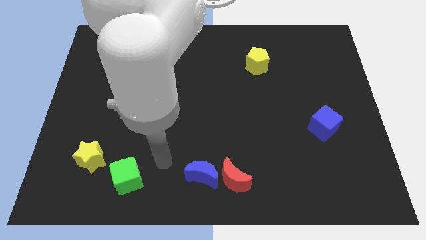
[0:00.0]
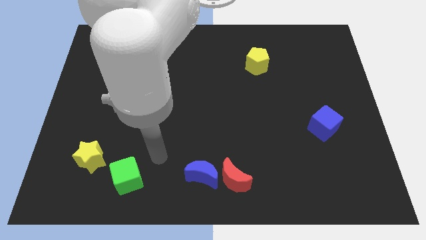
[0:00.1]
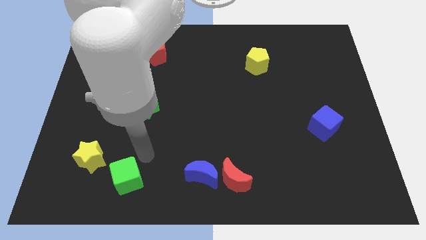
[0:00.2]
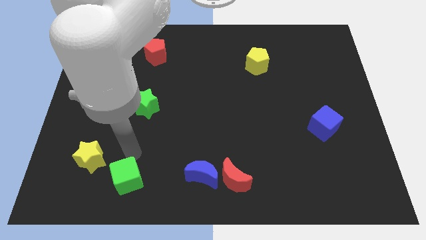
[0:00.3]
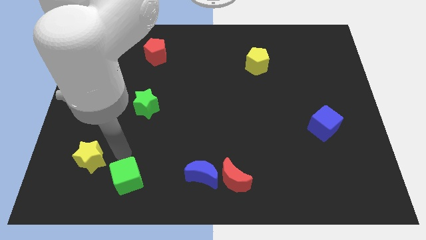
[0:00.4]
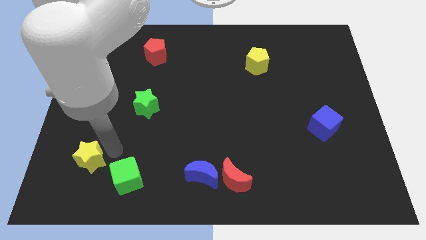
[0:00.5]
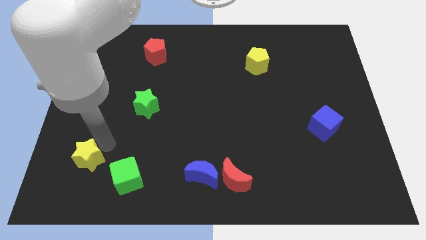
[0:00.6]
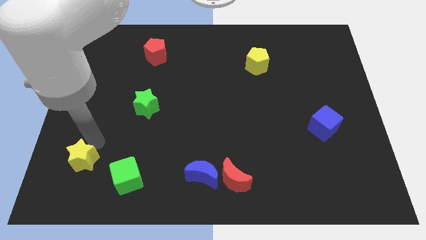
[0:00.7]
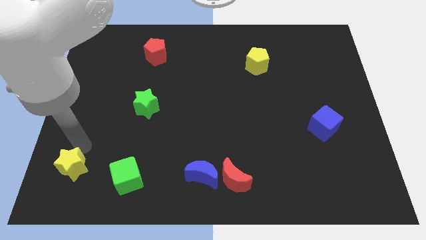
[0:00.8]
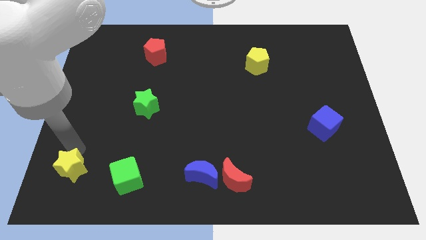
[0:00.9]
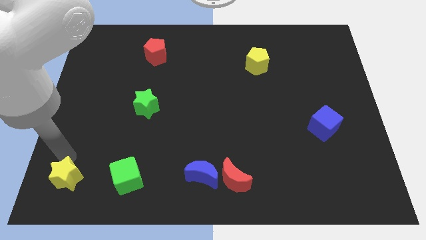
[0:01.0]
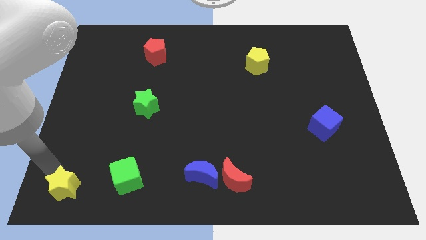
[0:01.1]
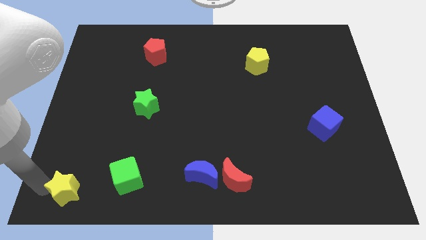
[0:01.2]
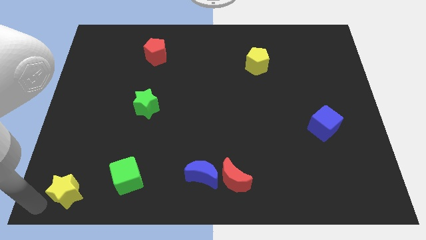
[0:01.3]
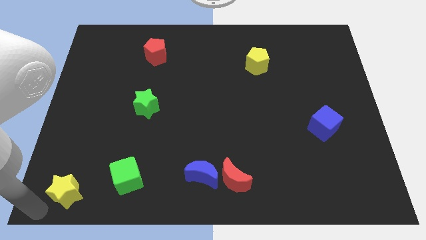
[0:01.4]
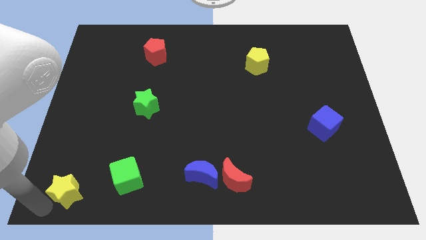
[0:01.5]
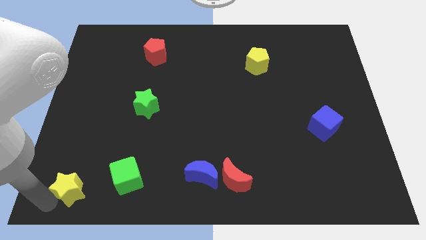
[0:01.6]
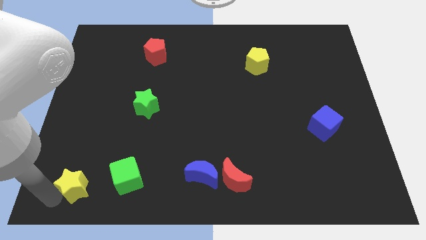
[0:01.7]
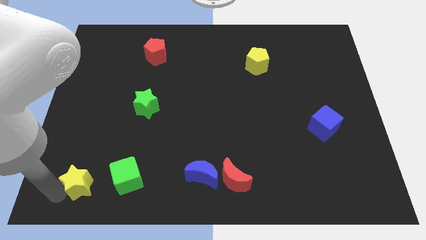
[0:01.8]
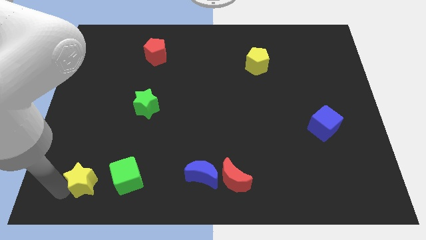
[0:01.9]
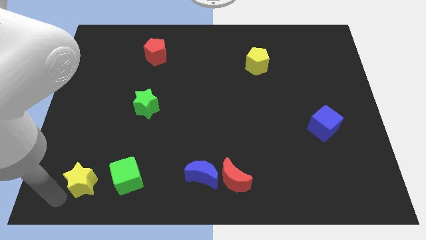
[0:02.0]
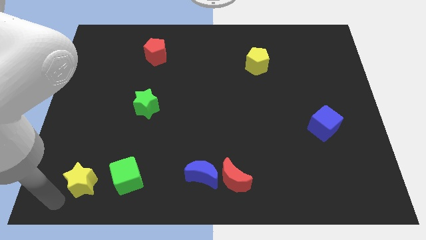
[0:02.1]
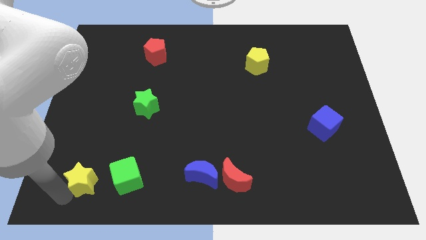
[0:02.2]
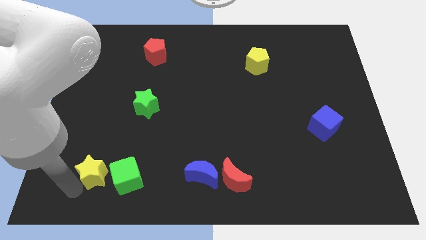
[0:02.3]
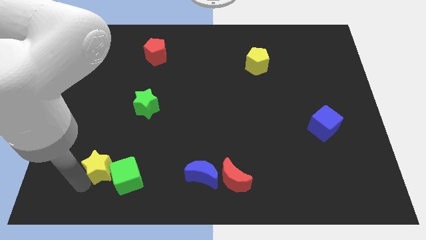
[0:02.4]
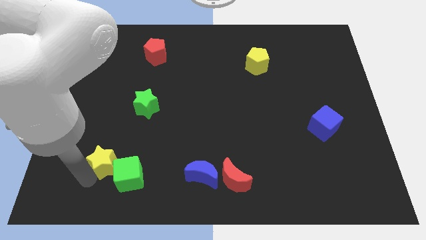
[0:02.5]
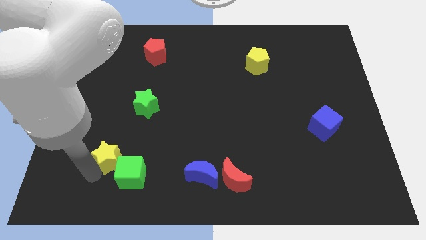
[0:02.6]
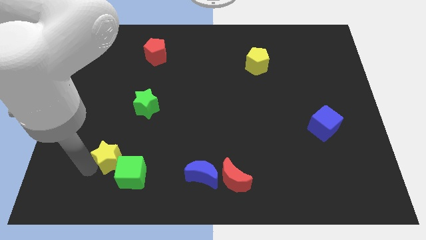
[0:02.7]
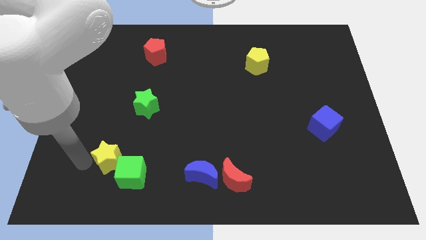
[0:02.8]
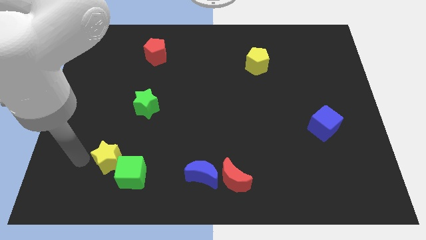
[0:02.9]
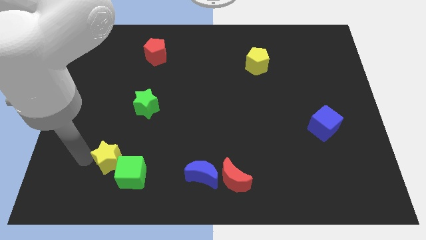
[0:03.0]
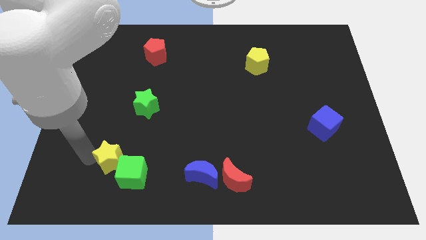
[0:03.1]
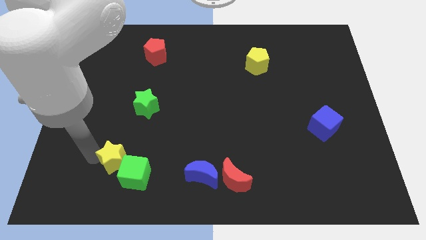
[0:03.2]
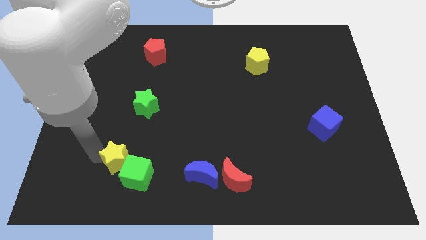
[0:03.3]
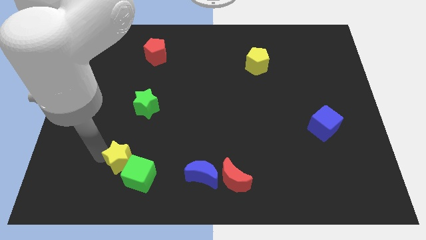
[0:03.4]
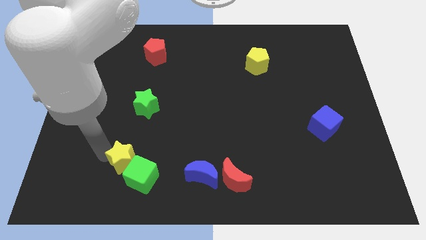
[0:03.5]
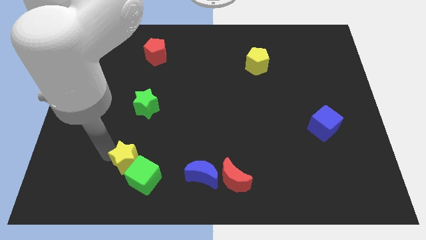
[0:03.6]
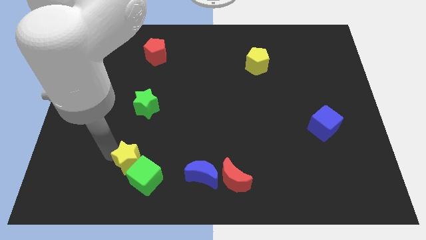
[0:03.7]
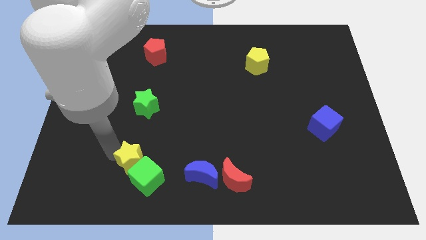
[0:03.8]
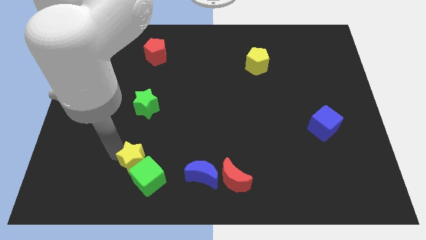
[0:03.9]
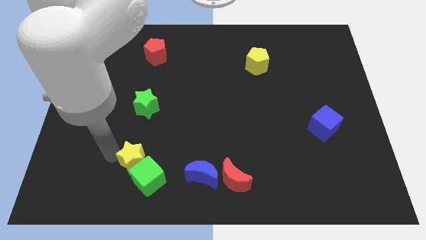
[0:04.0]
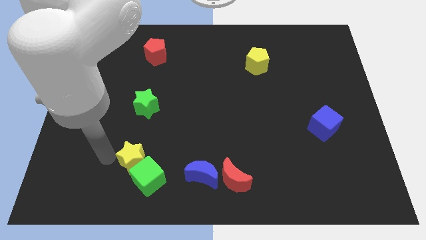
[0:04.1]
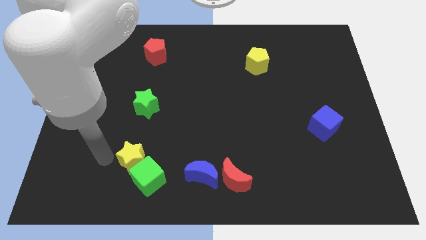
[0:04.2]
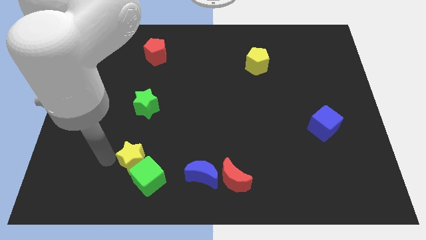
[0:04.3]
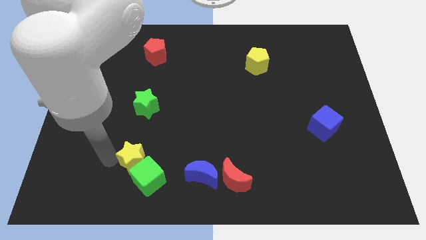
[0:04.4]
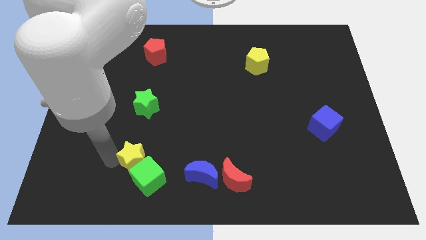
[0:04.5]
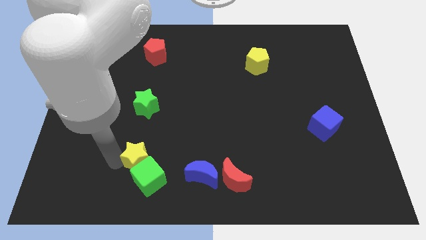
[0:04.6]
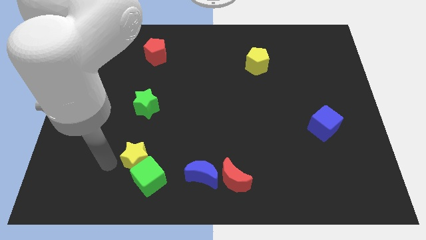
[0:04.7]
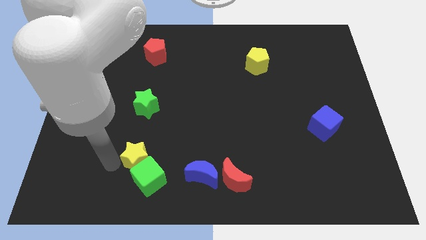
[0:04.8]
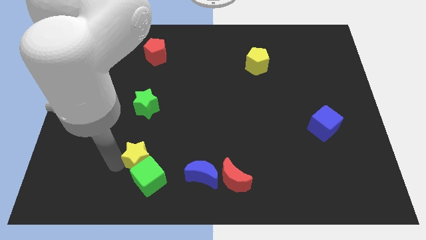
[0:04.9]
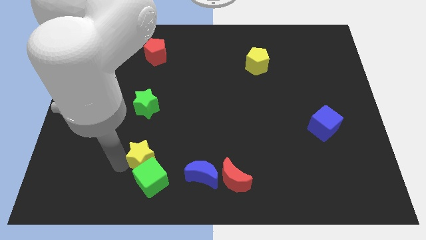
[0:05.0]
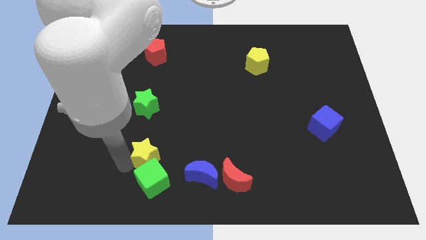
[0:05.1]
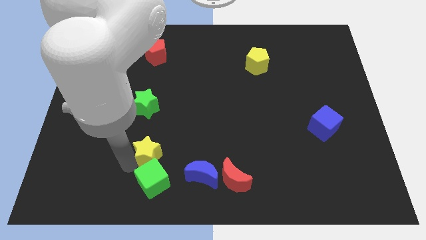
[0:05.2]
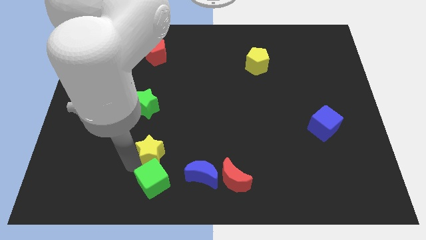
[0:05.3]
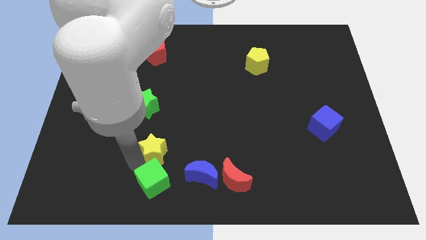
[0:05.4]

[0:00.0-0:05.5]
put the yellow star diagonally up and to the left of the blue moon

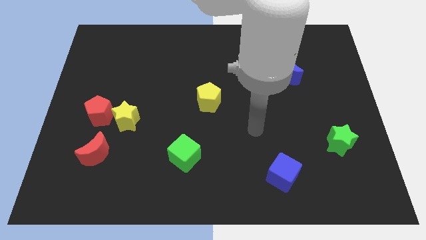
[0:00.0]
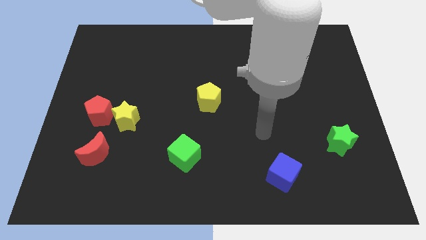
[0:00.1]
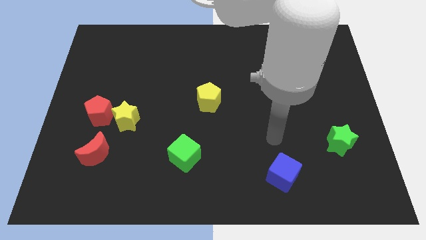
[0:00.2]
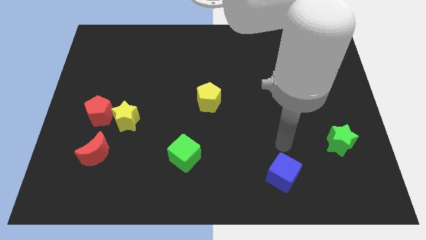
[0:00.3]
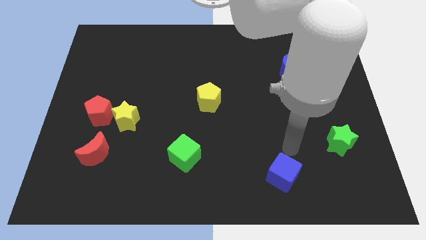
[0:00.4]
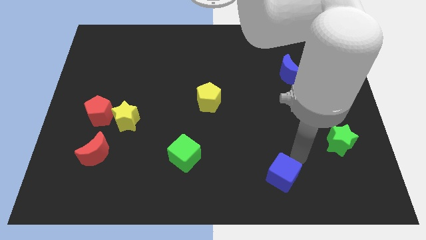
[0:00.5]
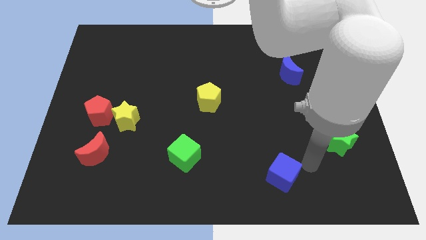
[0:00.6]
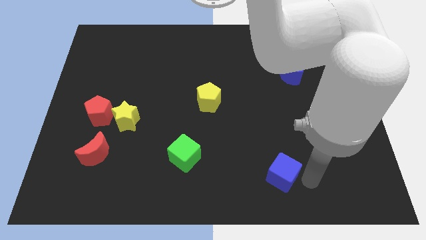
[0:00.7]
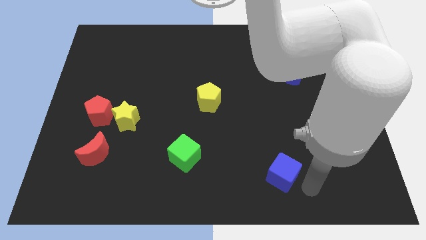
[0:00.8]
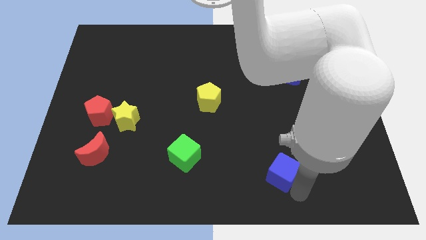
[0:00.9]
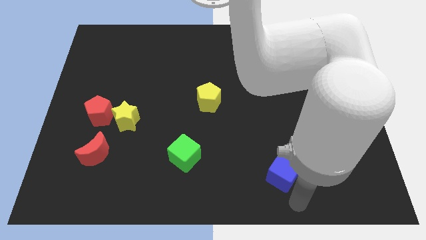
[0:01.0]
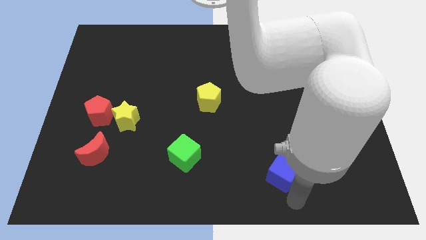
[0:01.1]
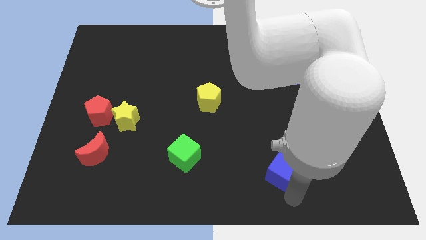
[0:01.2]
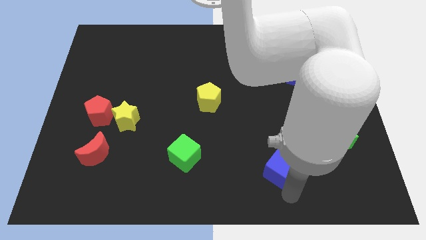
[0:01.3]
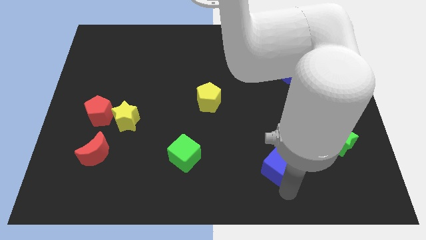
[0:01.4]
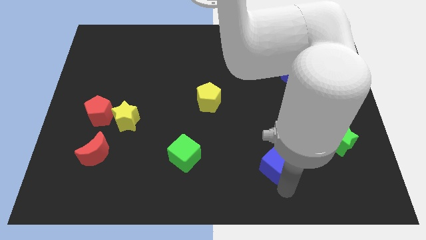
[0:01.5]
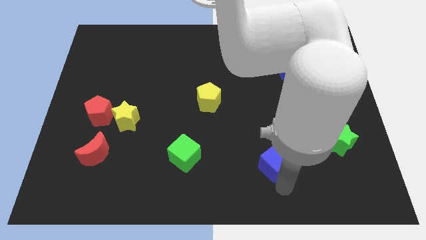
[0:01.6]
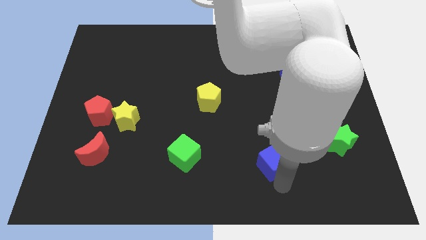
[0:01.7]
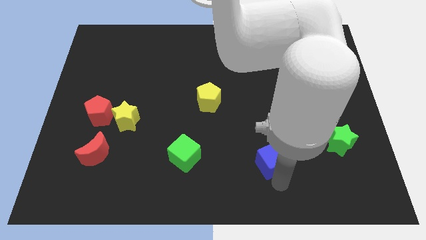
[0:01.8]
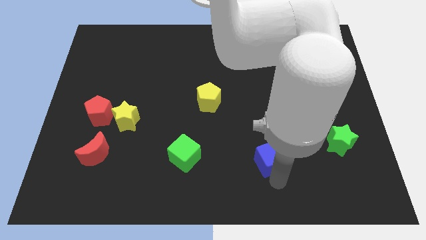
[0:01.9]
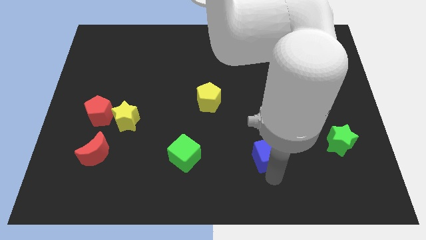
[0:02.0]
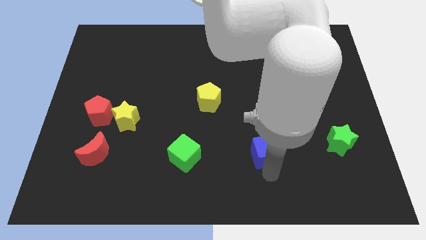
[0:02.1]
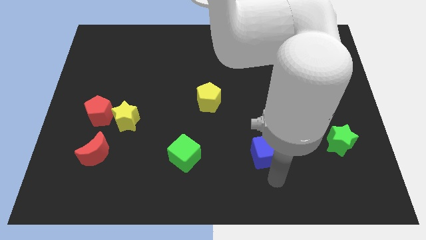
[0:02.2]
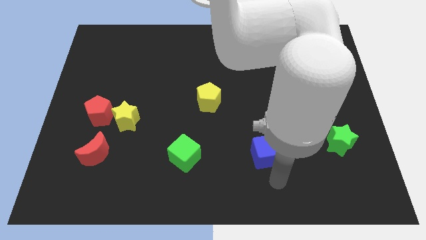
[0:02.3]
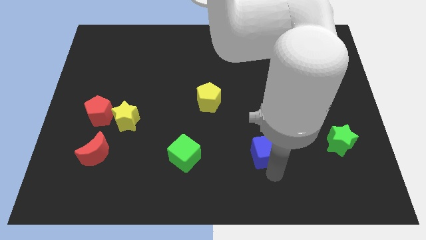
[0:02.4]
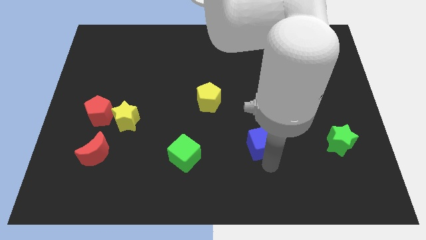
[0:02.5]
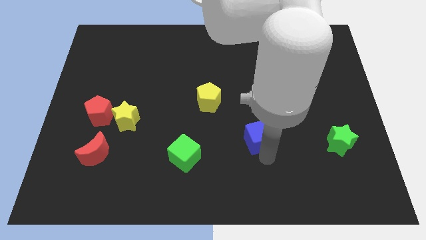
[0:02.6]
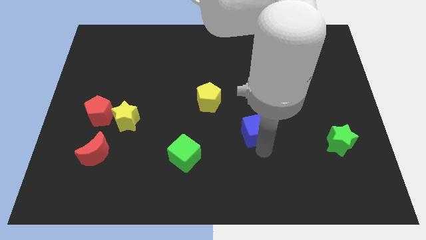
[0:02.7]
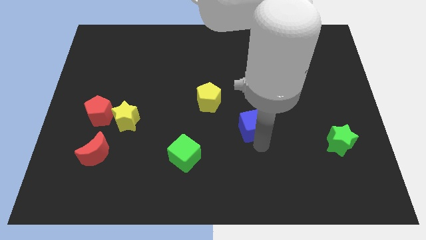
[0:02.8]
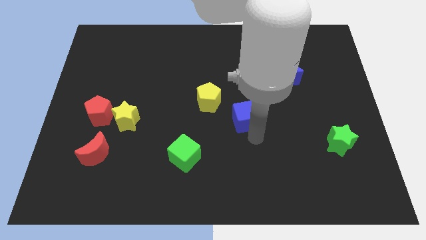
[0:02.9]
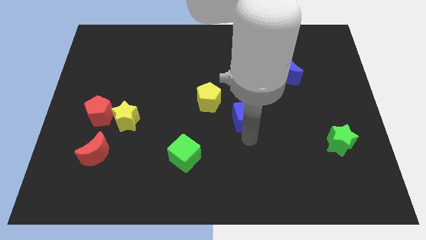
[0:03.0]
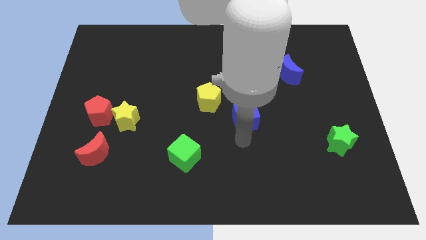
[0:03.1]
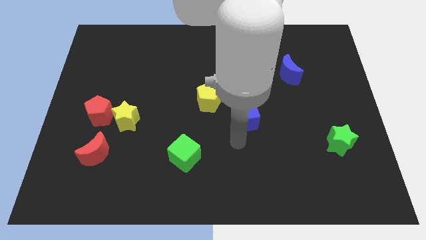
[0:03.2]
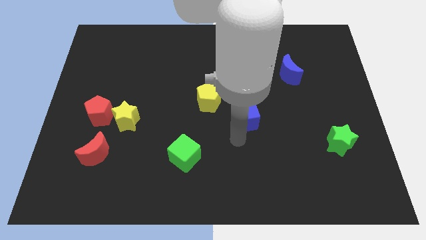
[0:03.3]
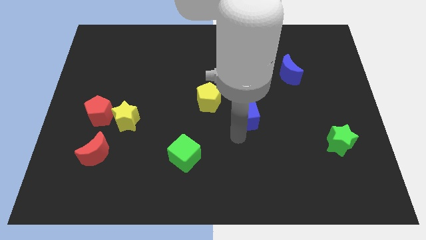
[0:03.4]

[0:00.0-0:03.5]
put the blue cube just right of the yellow pentagon
